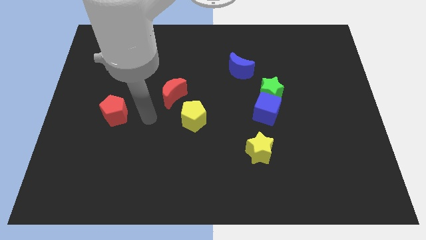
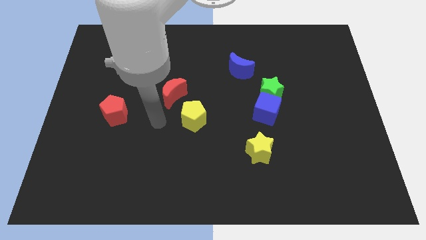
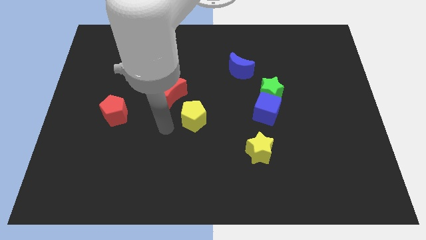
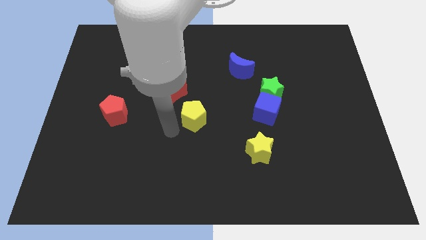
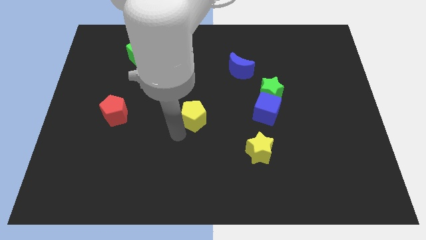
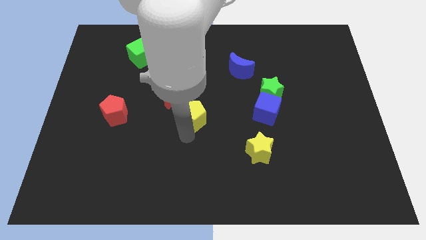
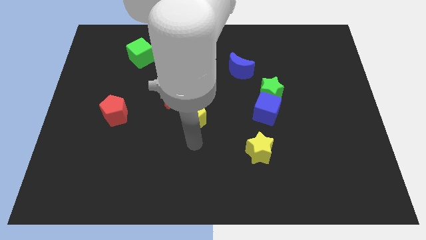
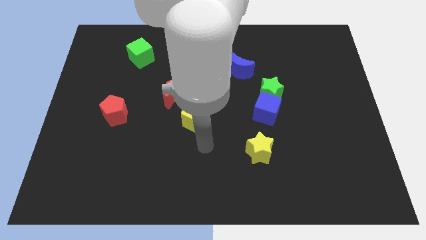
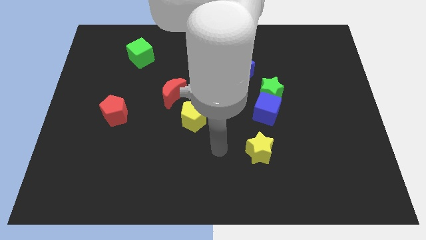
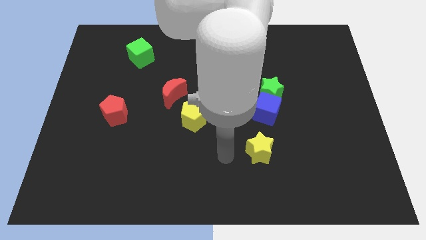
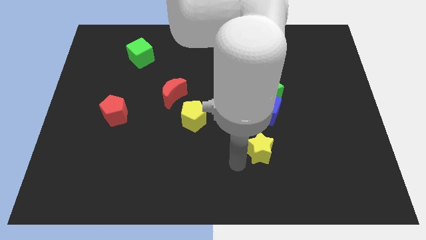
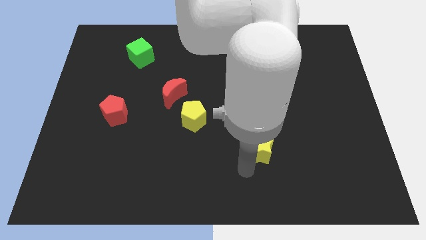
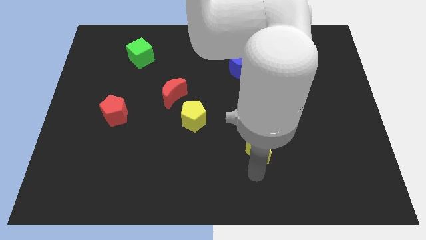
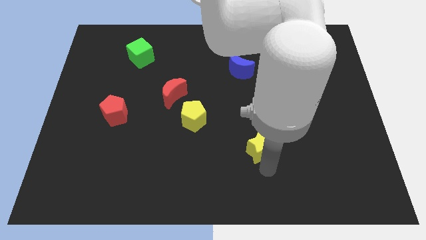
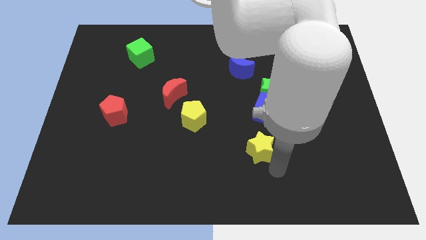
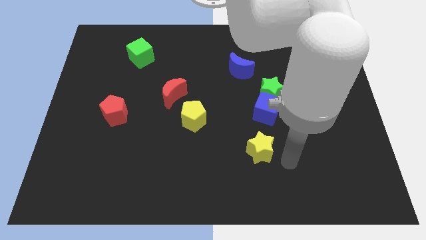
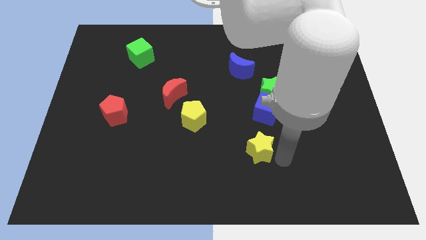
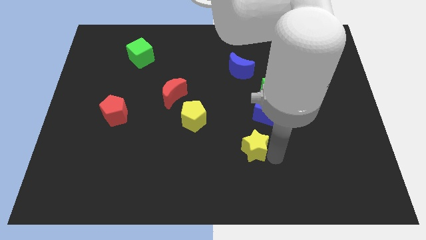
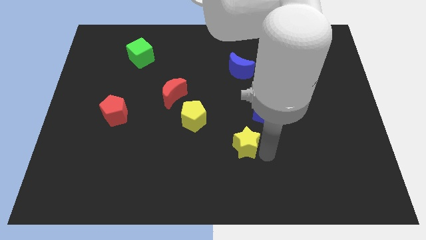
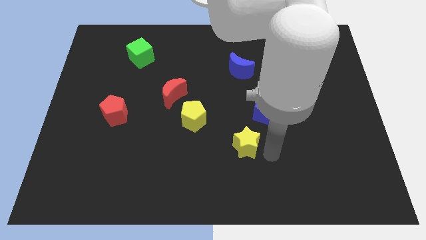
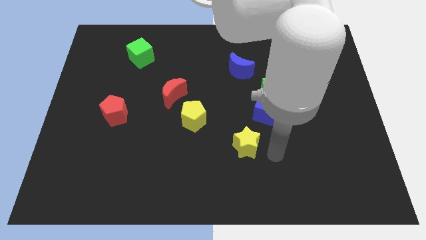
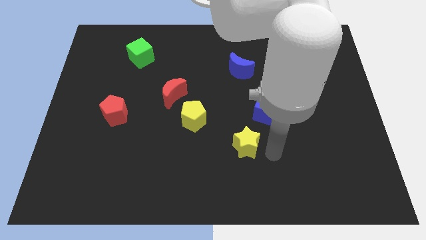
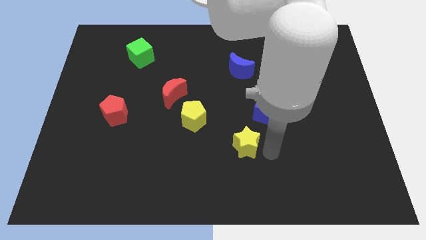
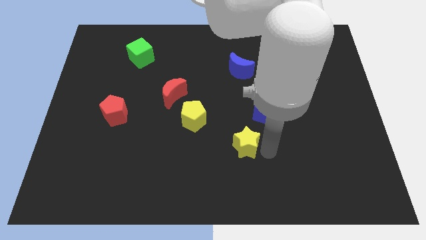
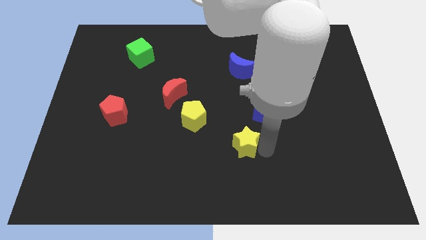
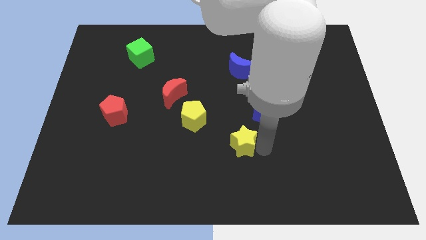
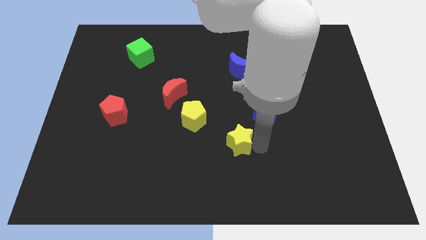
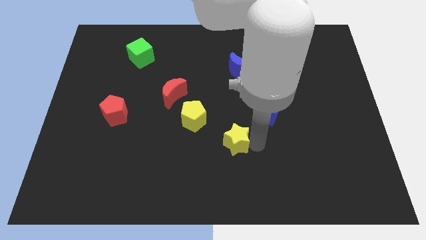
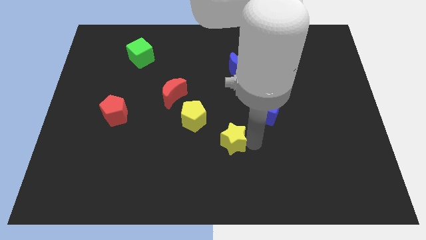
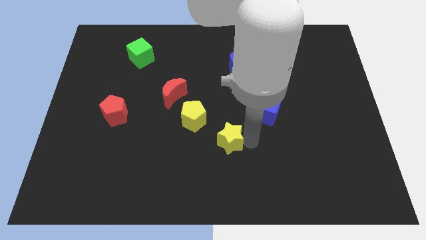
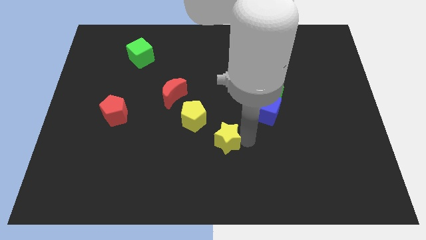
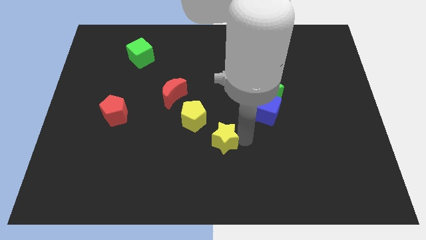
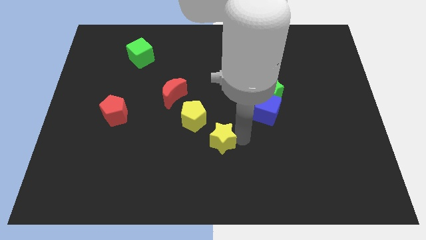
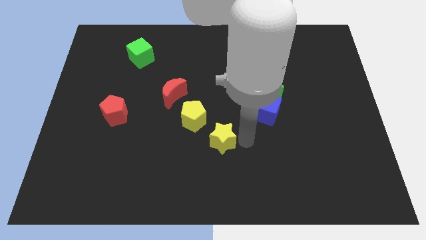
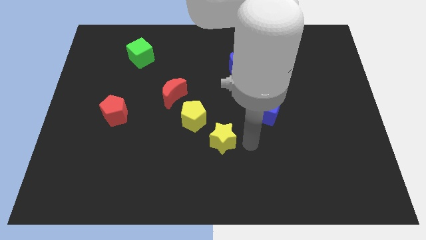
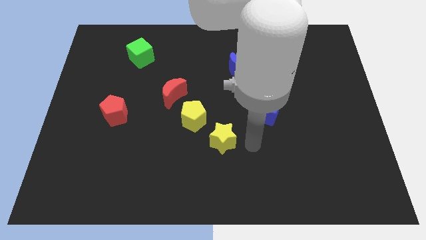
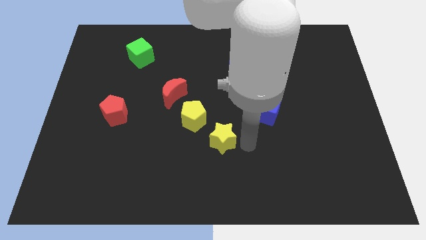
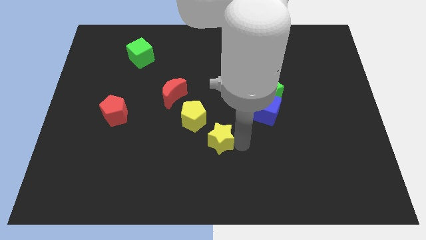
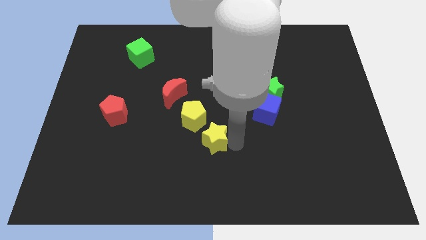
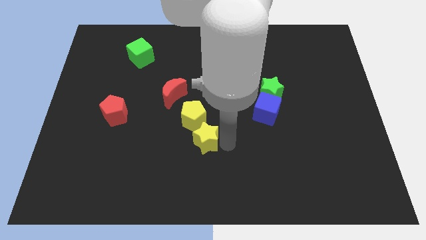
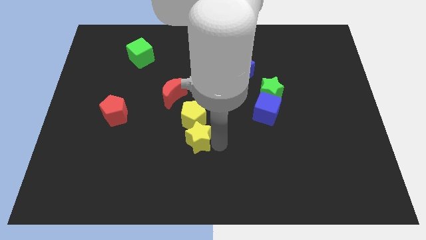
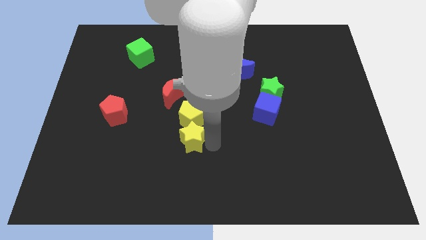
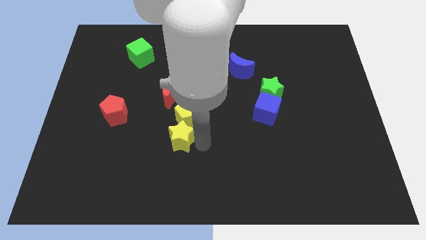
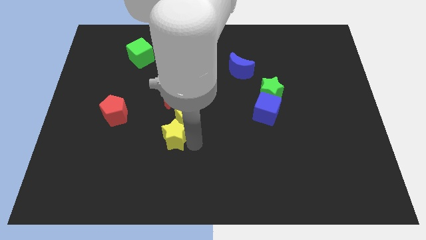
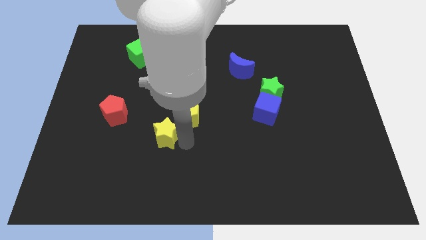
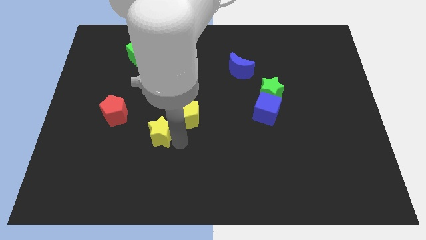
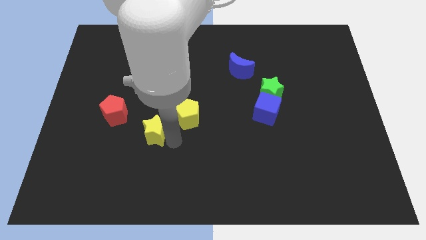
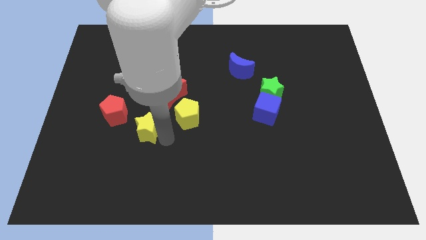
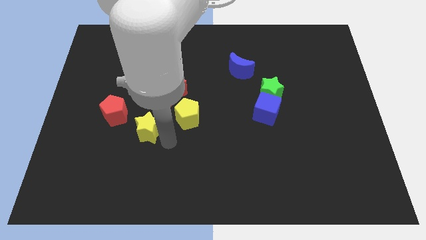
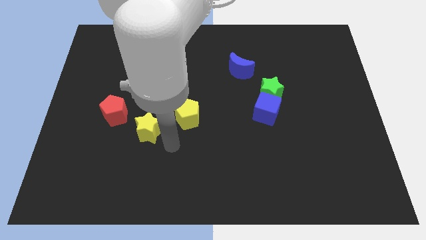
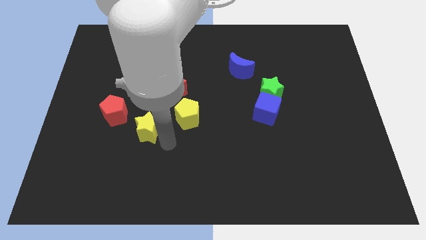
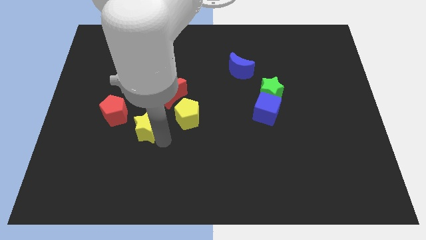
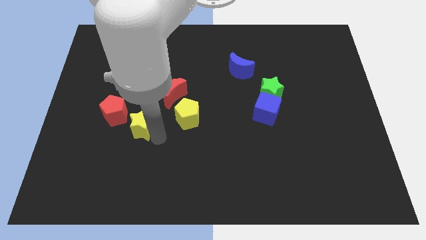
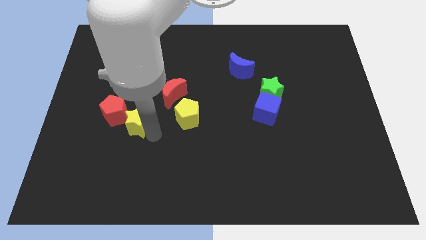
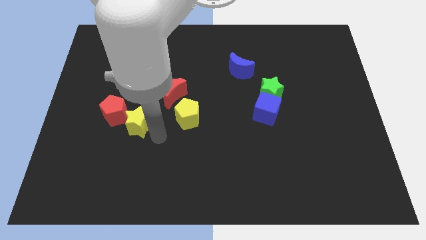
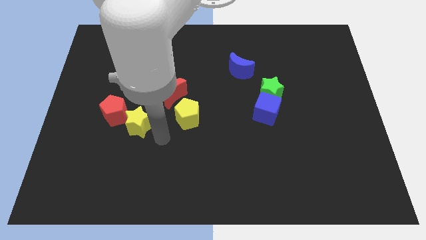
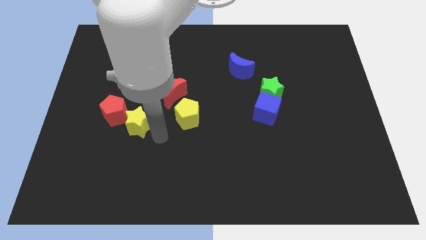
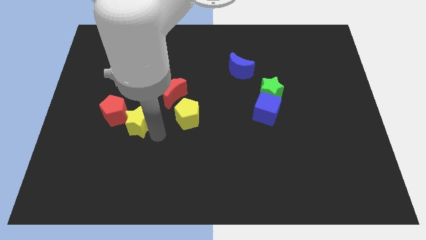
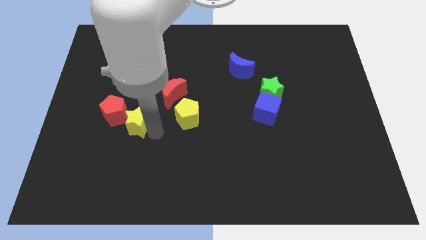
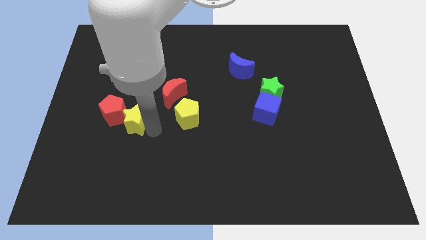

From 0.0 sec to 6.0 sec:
move the yellow star towards the red pentagon

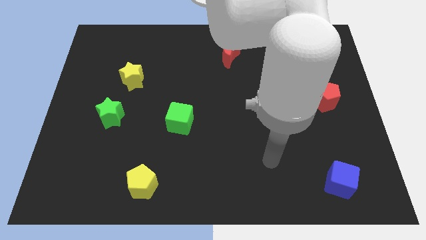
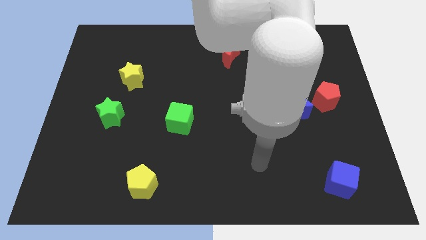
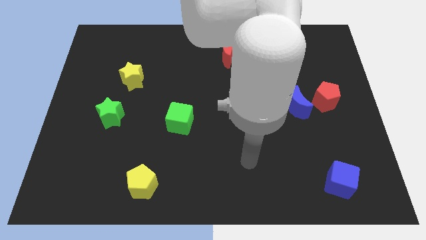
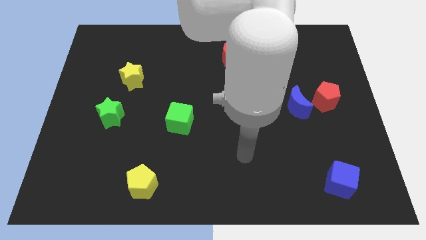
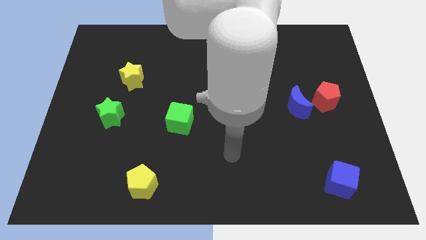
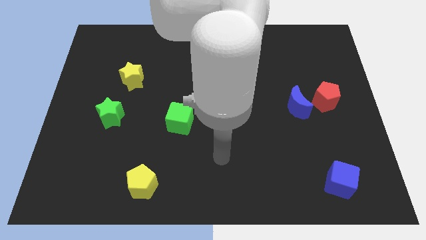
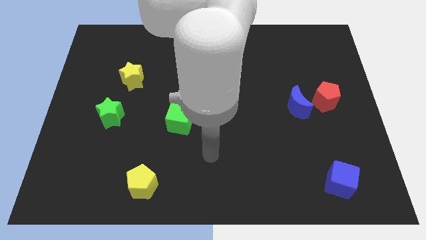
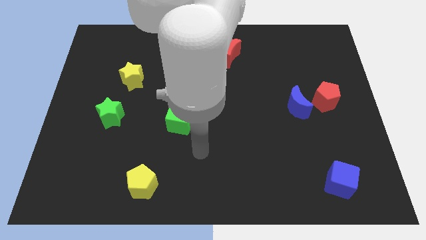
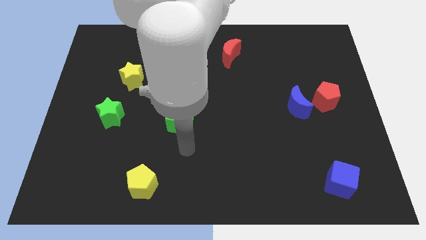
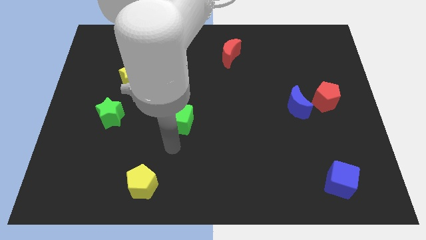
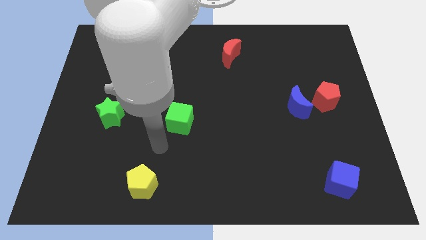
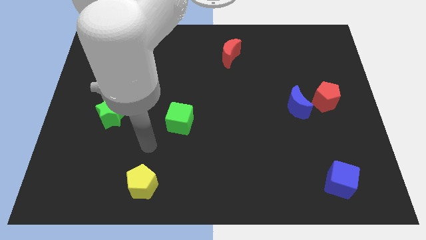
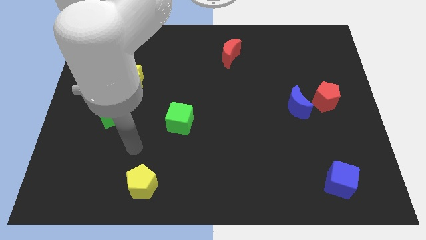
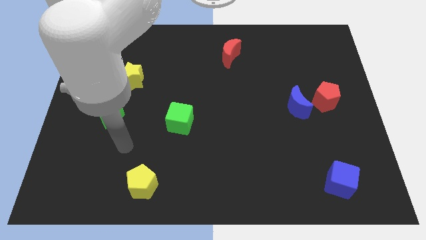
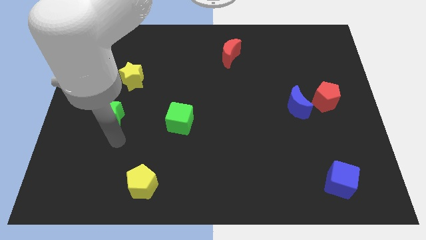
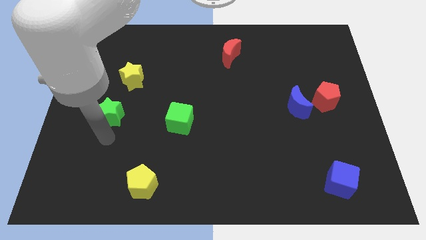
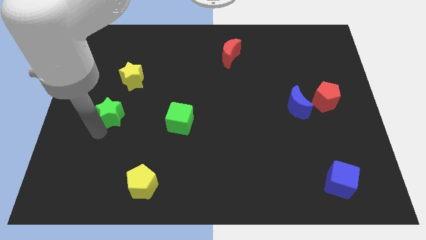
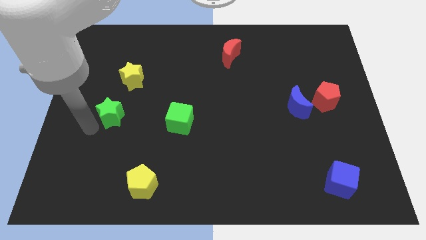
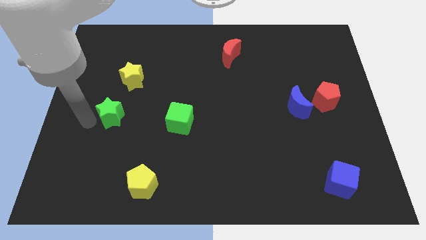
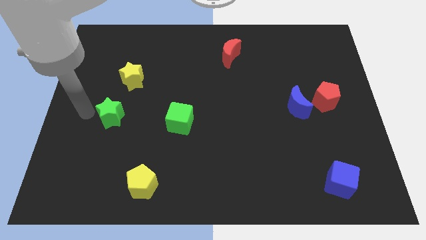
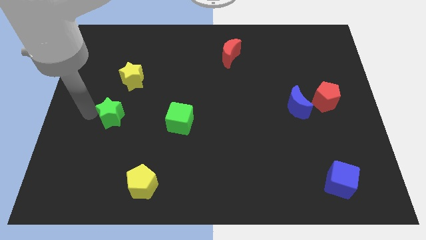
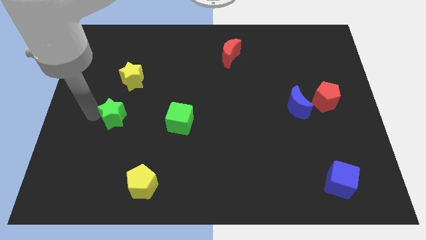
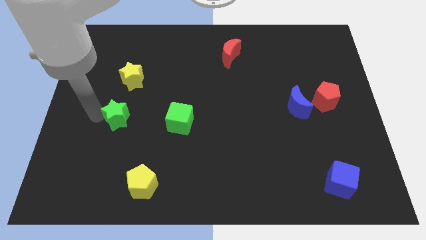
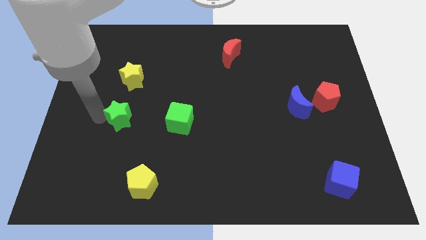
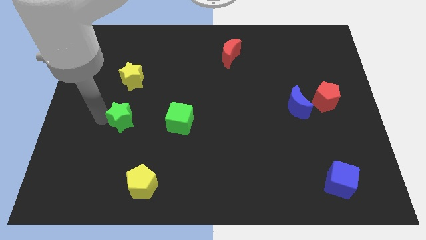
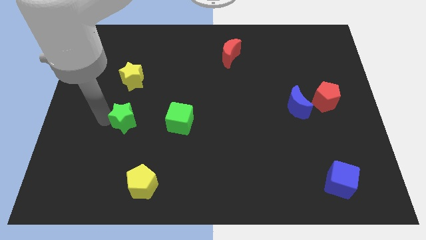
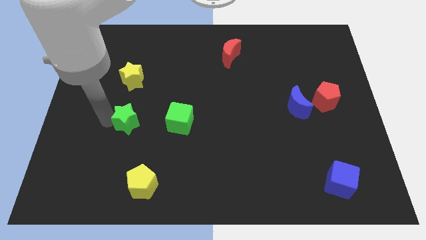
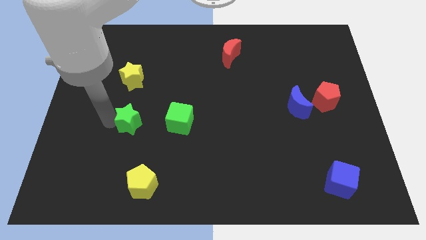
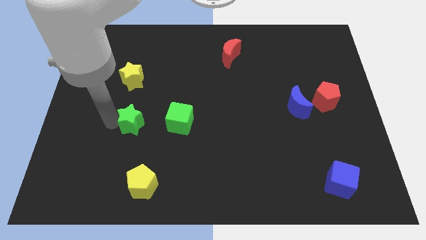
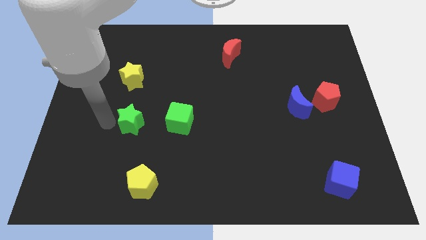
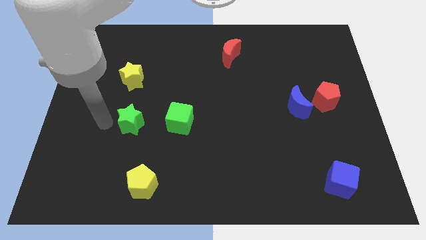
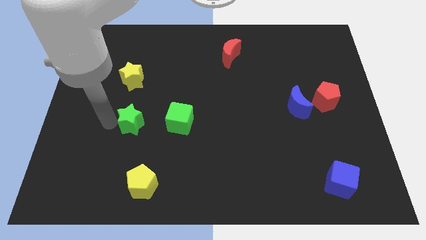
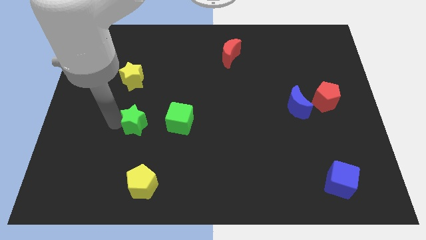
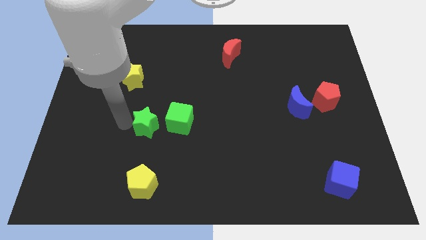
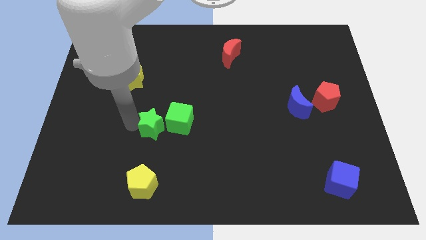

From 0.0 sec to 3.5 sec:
move the green star towards the green cube
